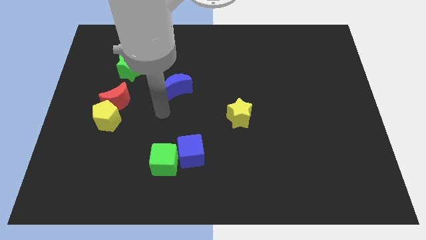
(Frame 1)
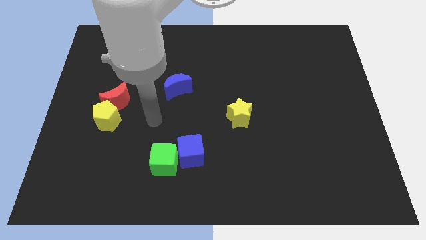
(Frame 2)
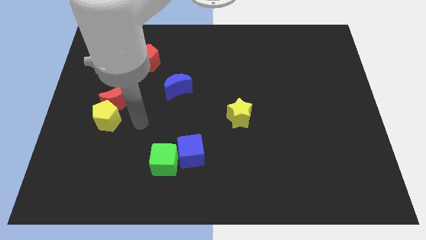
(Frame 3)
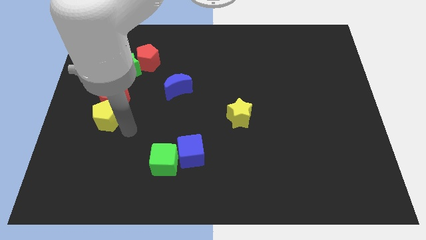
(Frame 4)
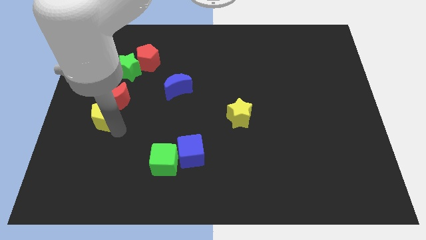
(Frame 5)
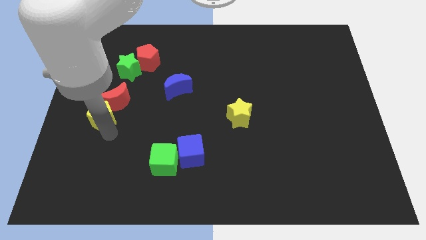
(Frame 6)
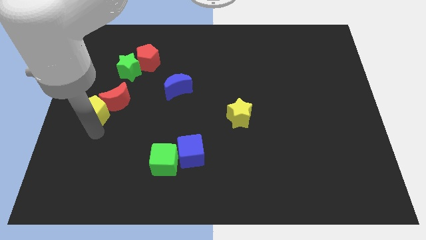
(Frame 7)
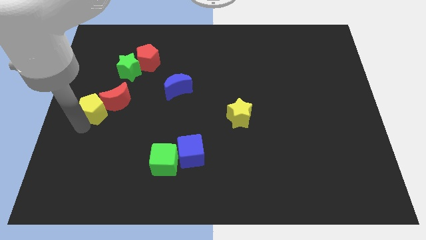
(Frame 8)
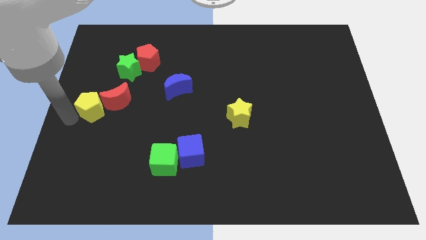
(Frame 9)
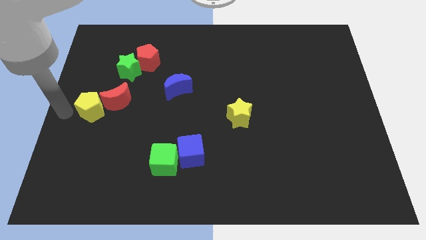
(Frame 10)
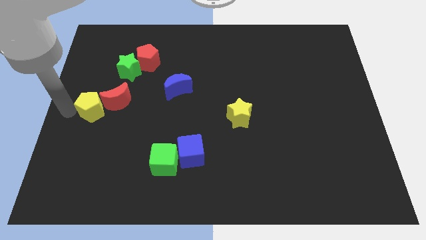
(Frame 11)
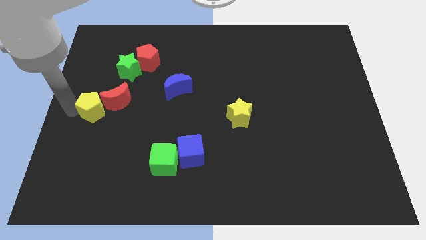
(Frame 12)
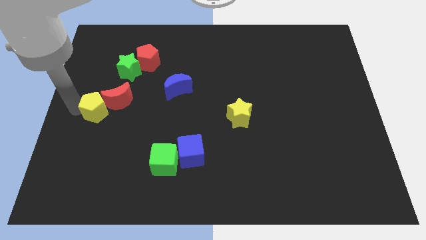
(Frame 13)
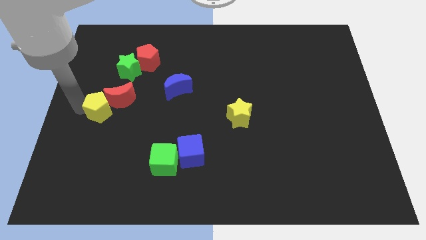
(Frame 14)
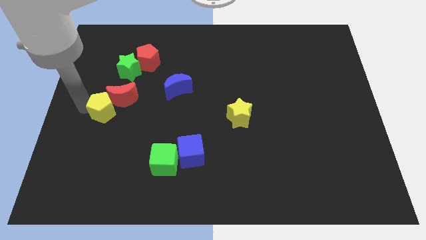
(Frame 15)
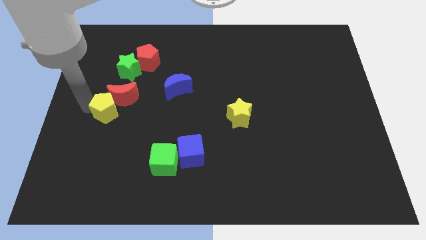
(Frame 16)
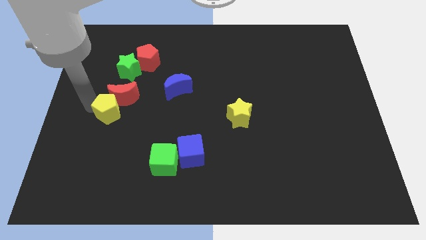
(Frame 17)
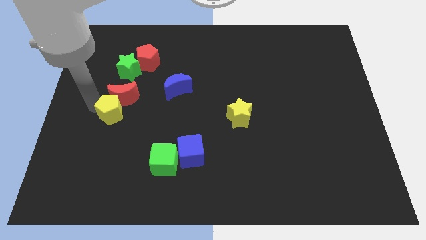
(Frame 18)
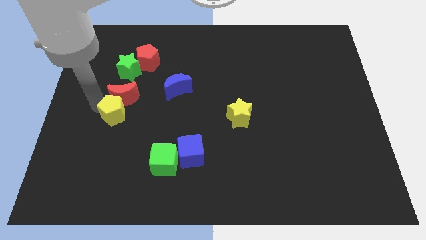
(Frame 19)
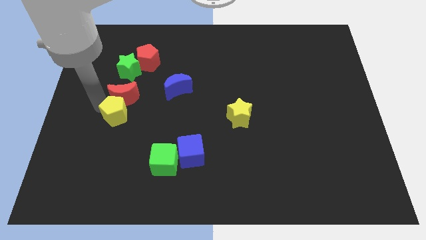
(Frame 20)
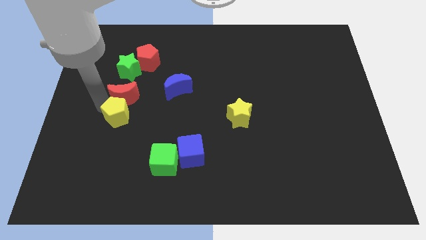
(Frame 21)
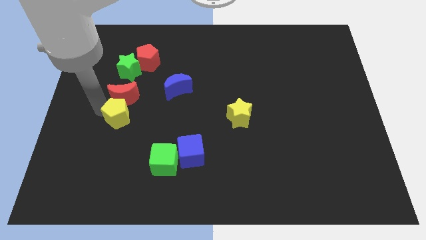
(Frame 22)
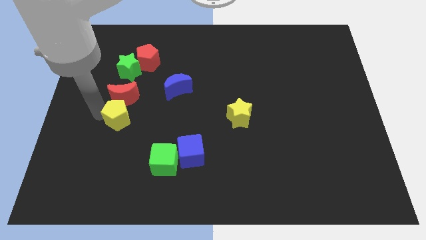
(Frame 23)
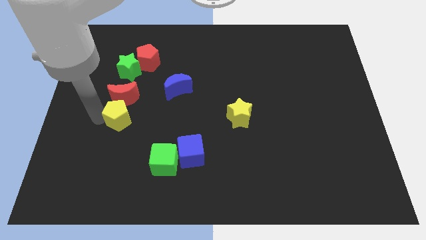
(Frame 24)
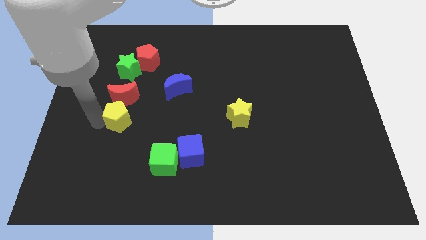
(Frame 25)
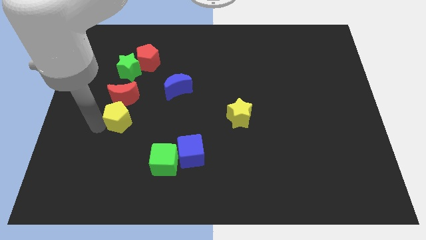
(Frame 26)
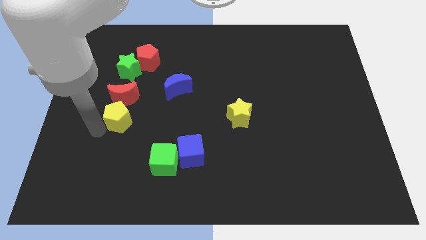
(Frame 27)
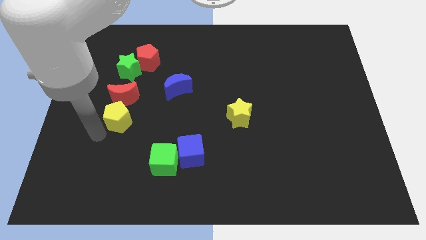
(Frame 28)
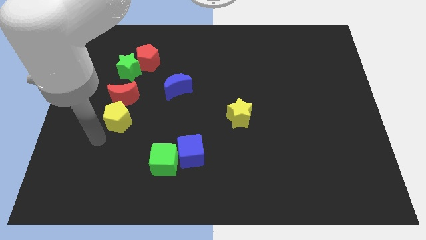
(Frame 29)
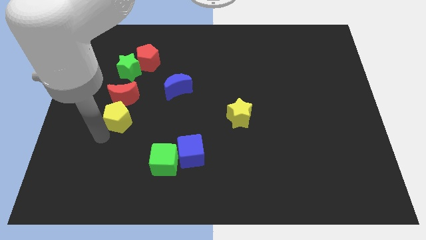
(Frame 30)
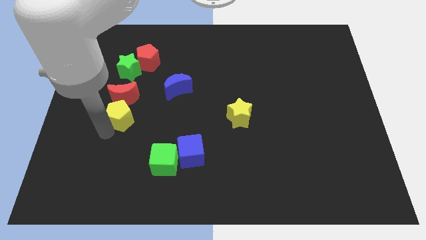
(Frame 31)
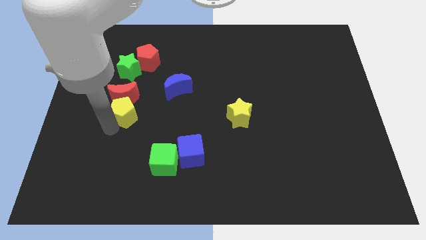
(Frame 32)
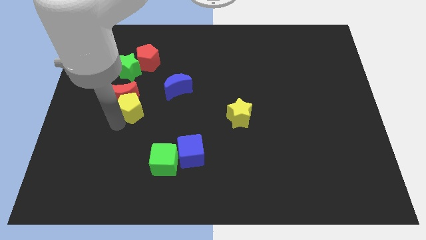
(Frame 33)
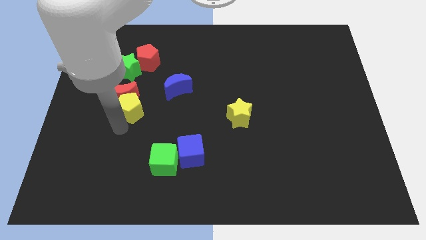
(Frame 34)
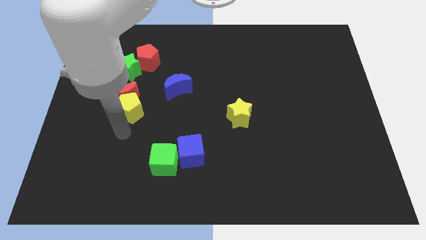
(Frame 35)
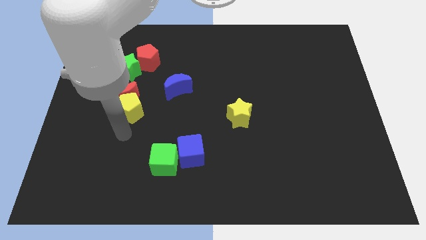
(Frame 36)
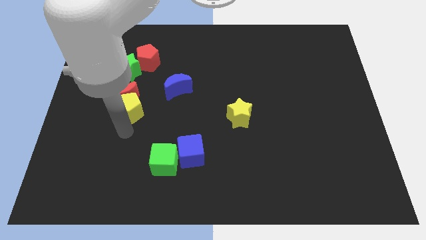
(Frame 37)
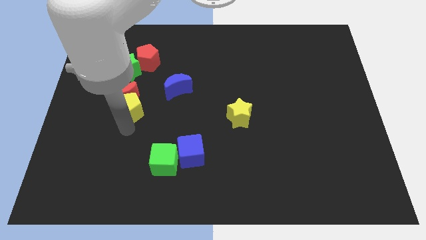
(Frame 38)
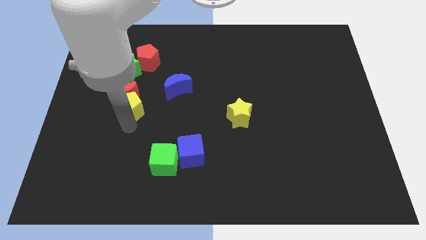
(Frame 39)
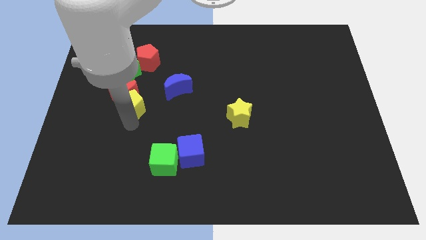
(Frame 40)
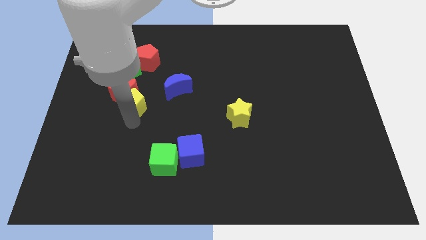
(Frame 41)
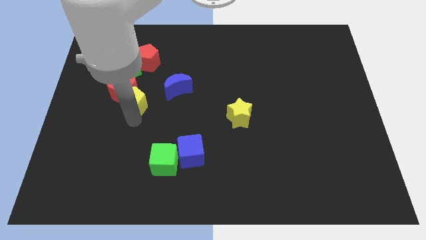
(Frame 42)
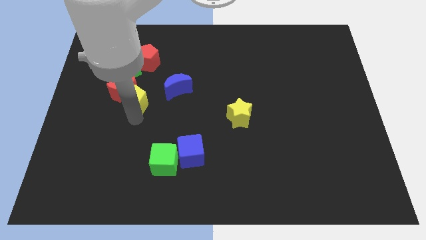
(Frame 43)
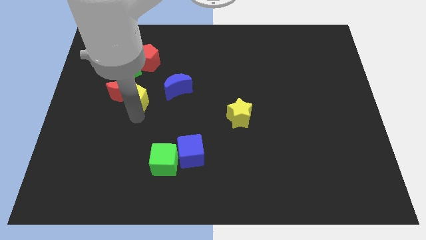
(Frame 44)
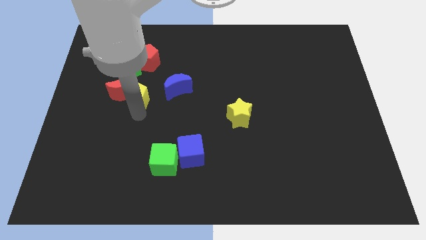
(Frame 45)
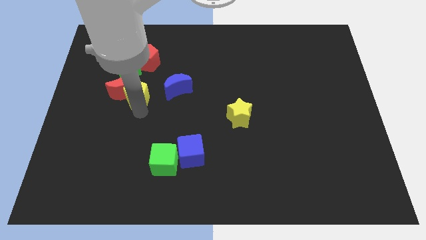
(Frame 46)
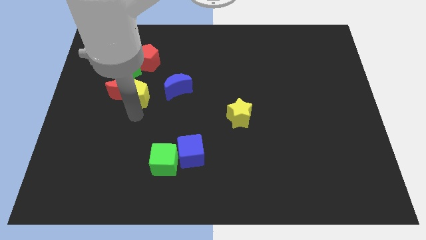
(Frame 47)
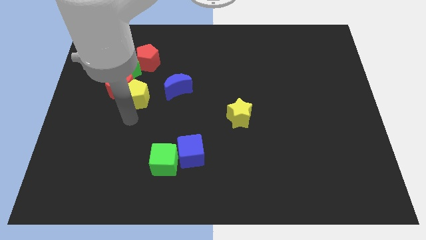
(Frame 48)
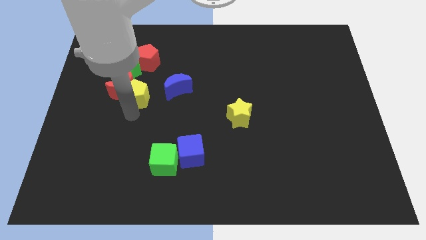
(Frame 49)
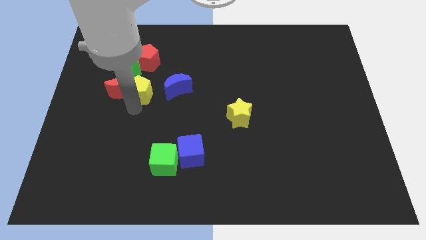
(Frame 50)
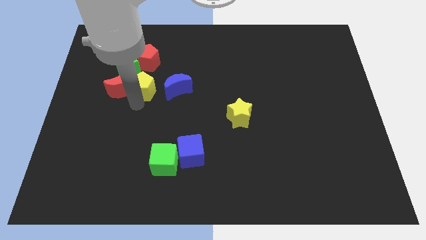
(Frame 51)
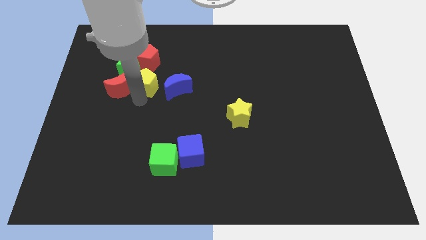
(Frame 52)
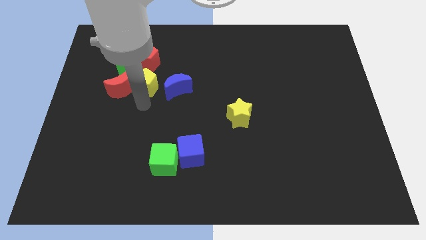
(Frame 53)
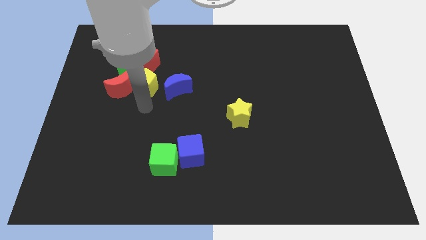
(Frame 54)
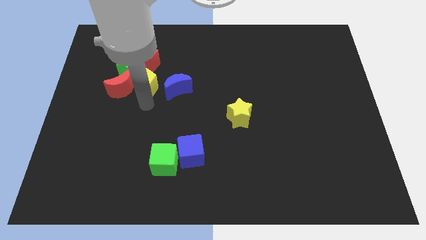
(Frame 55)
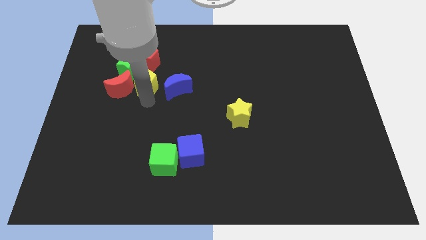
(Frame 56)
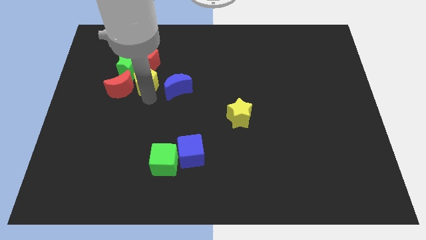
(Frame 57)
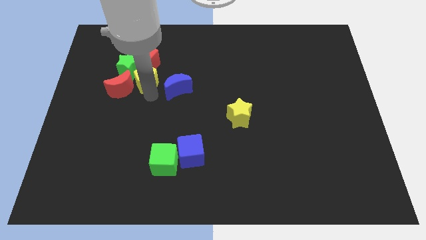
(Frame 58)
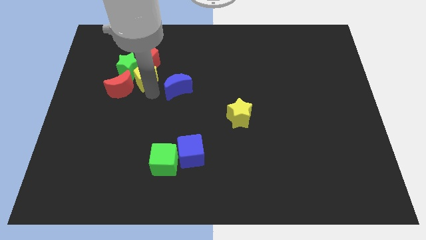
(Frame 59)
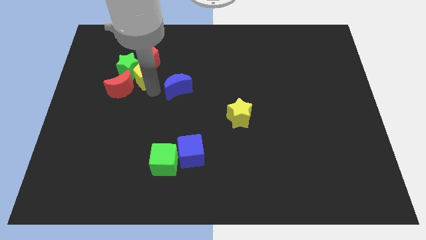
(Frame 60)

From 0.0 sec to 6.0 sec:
move the yellow pentagon towards the red pentagon

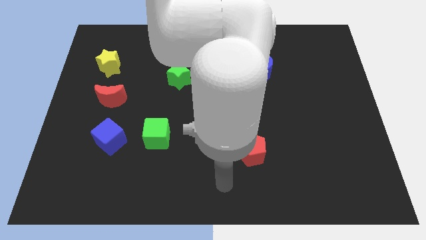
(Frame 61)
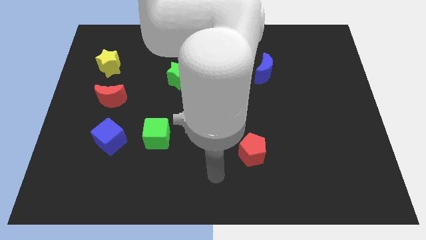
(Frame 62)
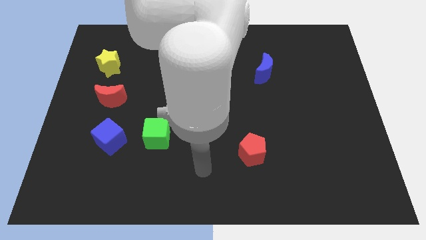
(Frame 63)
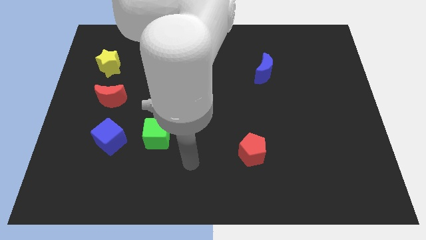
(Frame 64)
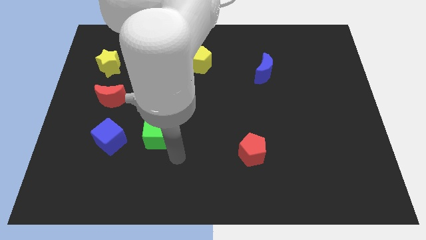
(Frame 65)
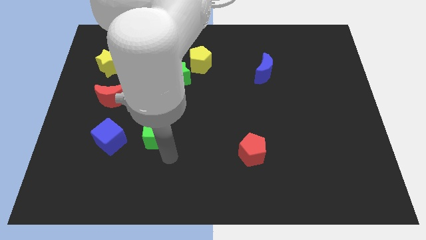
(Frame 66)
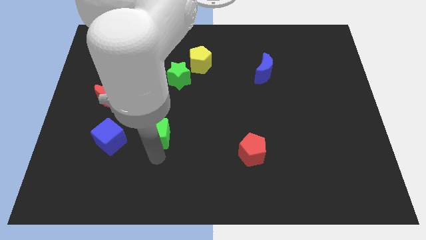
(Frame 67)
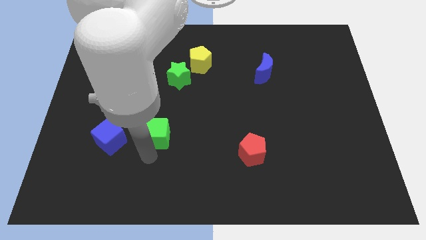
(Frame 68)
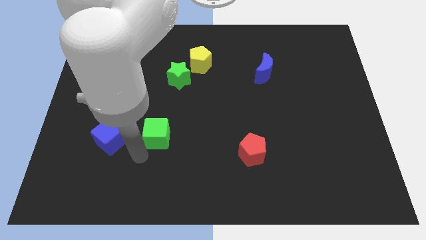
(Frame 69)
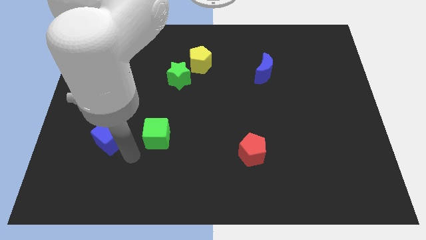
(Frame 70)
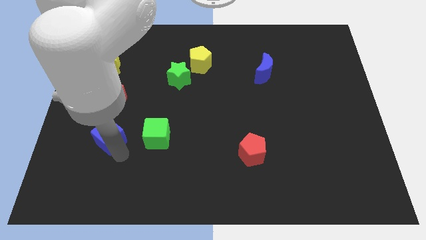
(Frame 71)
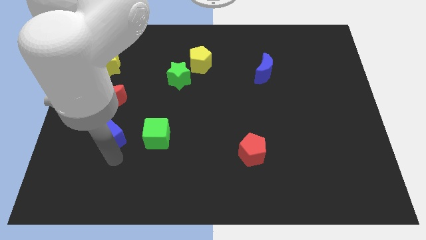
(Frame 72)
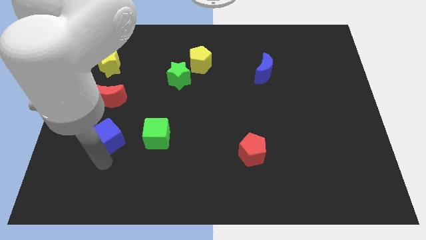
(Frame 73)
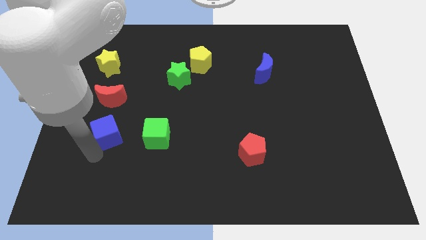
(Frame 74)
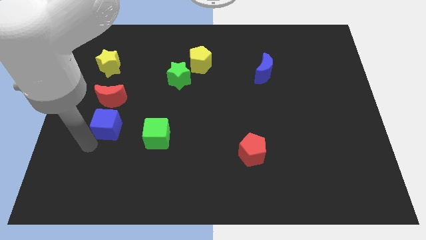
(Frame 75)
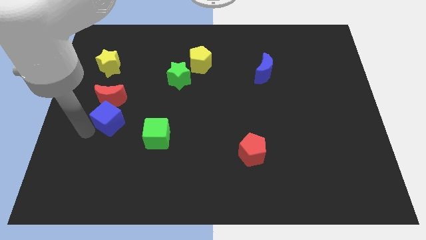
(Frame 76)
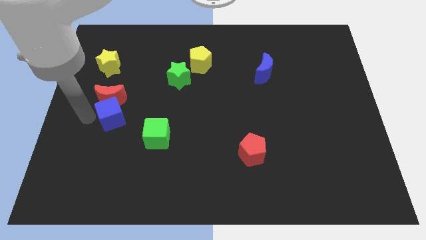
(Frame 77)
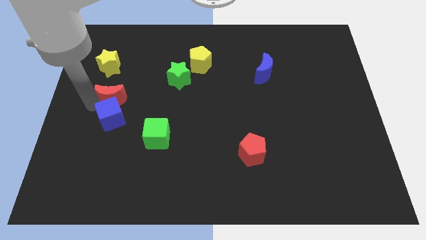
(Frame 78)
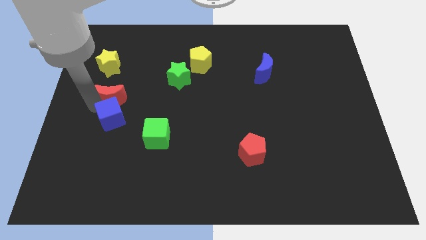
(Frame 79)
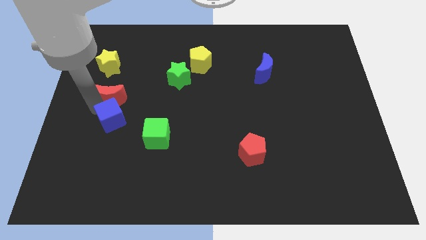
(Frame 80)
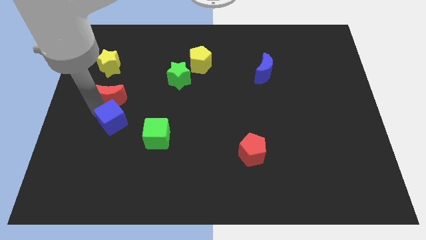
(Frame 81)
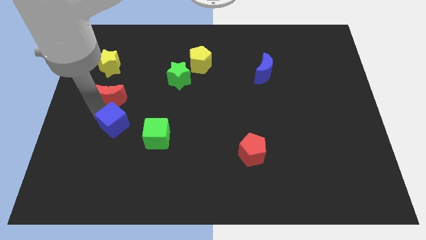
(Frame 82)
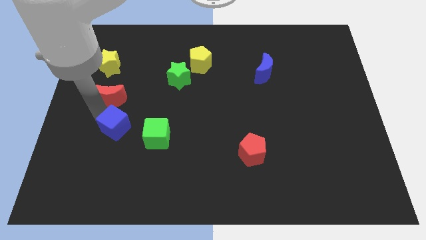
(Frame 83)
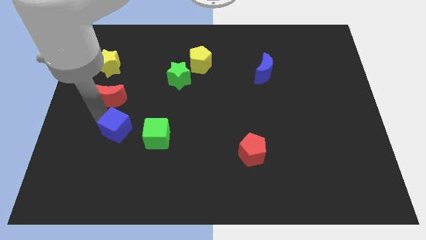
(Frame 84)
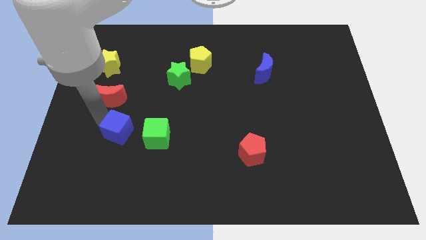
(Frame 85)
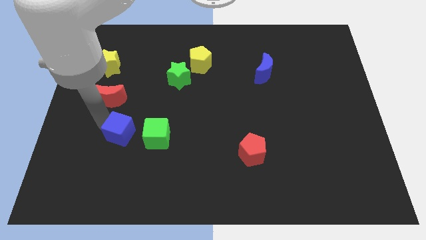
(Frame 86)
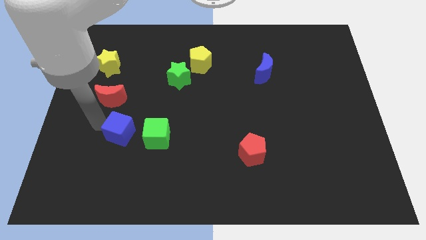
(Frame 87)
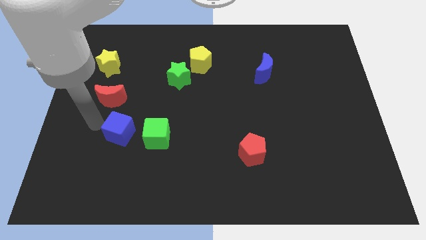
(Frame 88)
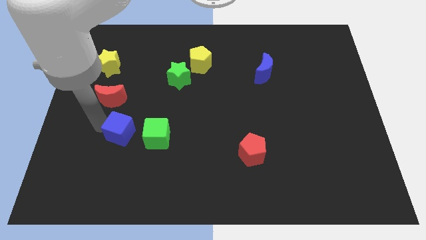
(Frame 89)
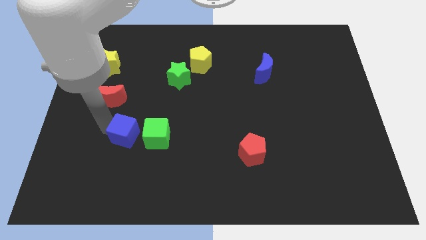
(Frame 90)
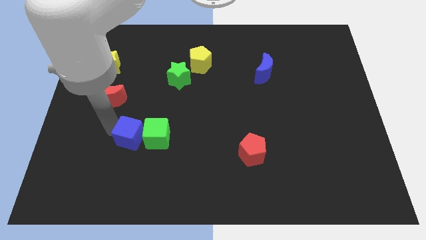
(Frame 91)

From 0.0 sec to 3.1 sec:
put the blue cube close to the green cube
